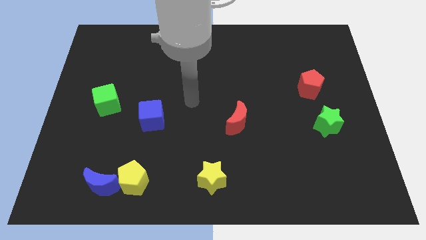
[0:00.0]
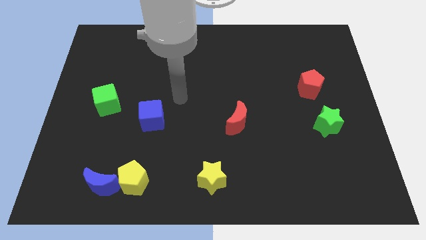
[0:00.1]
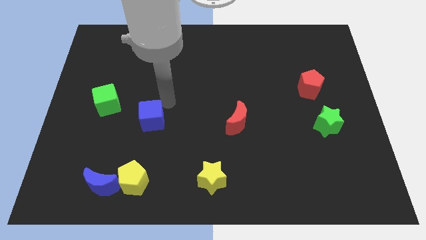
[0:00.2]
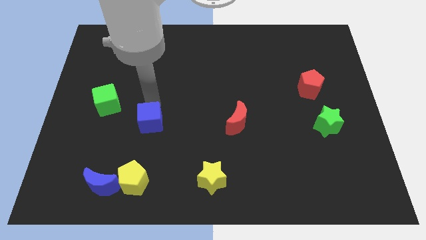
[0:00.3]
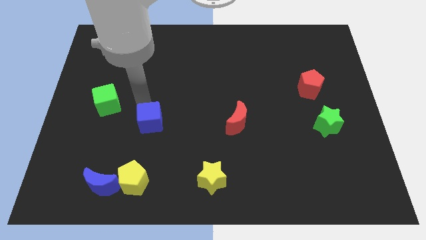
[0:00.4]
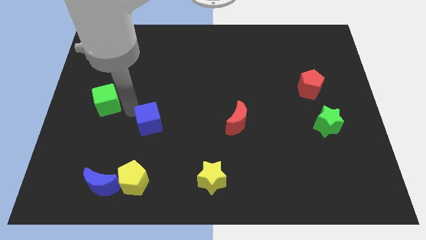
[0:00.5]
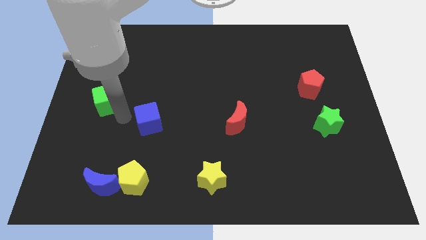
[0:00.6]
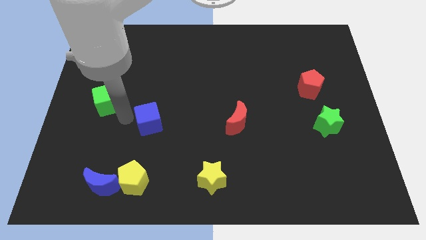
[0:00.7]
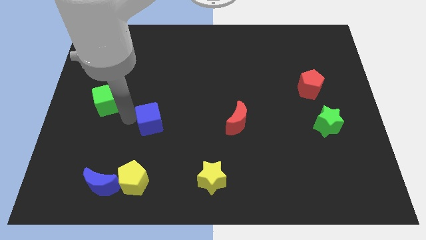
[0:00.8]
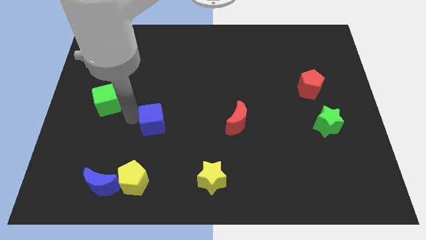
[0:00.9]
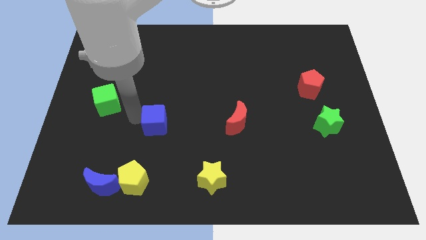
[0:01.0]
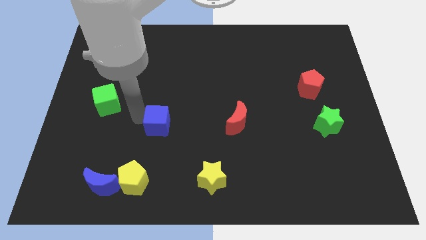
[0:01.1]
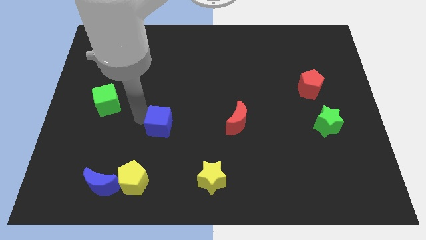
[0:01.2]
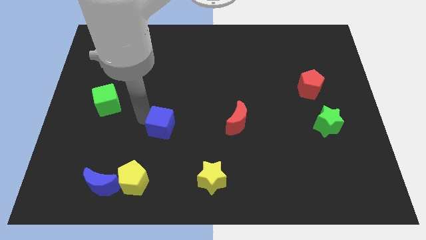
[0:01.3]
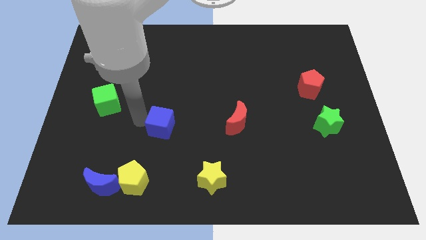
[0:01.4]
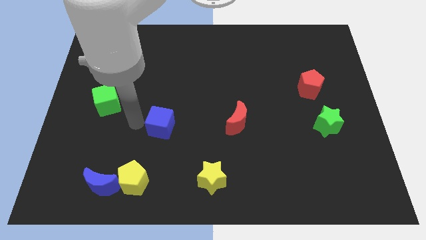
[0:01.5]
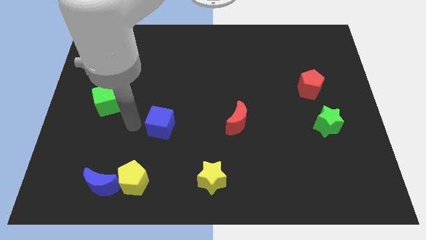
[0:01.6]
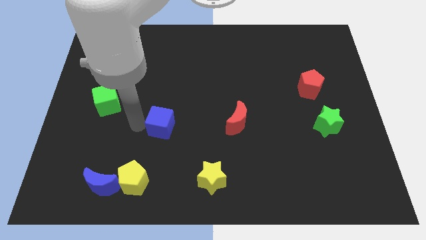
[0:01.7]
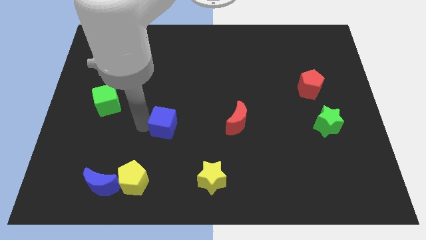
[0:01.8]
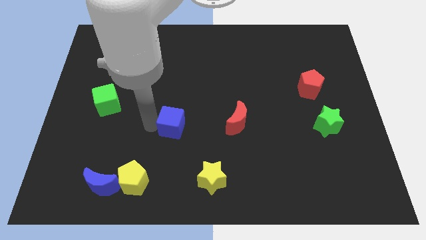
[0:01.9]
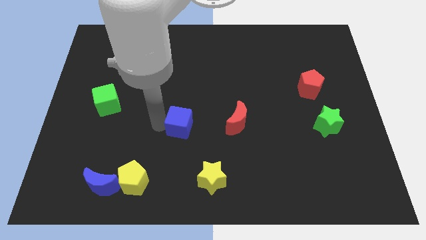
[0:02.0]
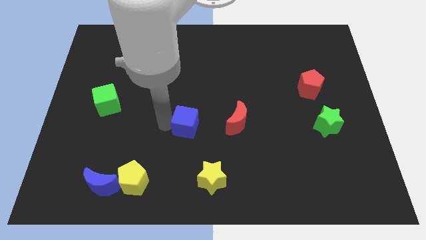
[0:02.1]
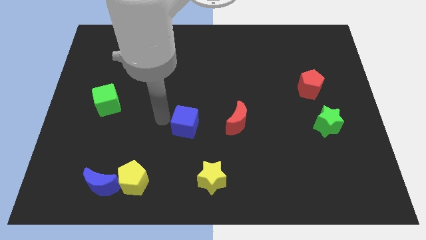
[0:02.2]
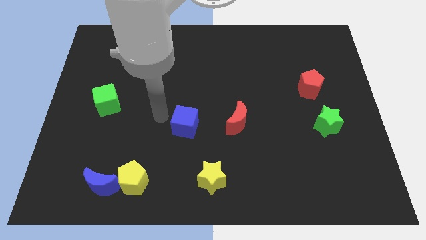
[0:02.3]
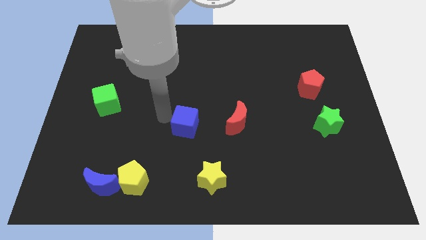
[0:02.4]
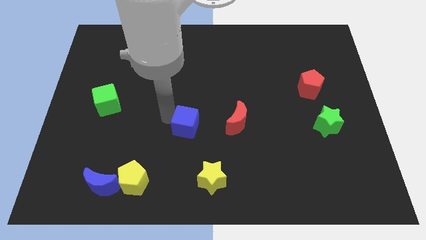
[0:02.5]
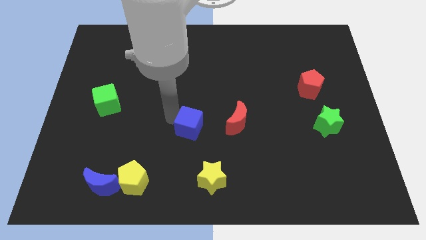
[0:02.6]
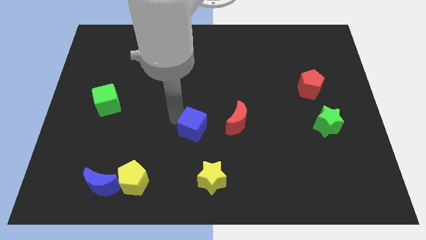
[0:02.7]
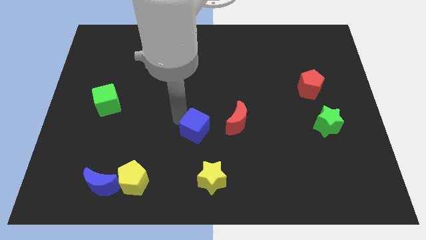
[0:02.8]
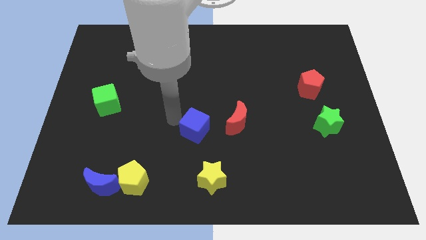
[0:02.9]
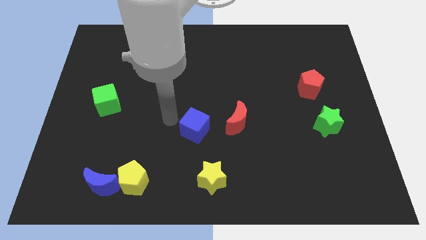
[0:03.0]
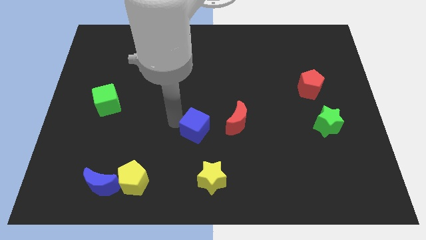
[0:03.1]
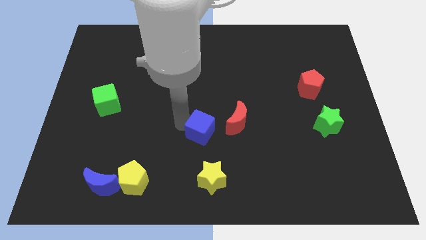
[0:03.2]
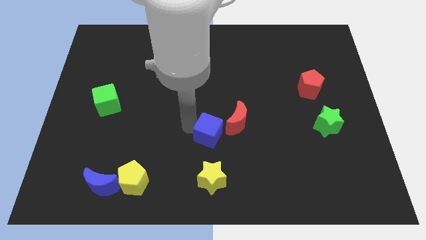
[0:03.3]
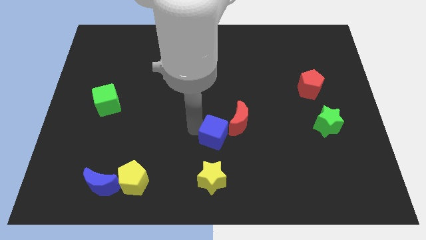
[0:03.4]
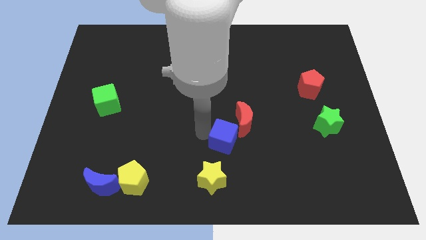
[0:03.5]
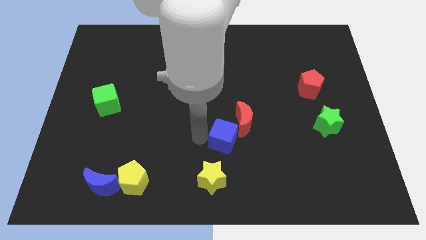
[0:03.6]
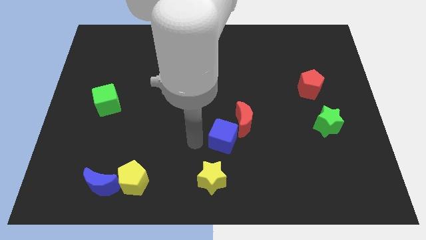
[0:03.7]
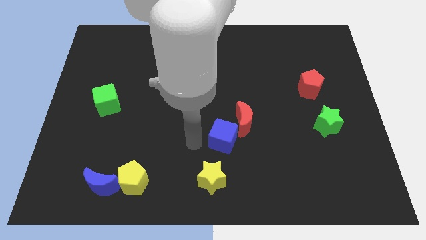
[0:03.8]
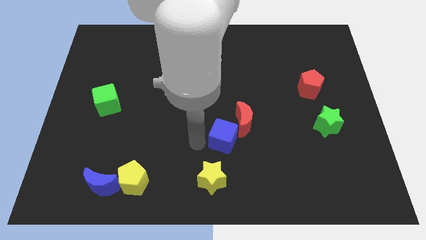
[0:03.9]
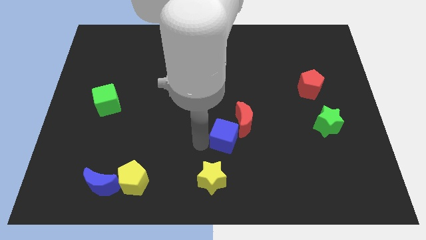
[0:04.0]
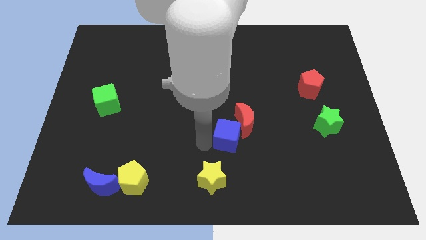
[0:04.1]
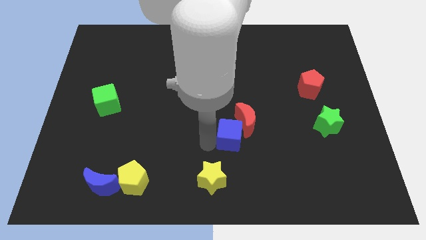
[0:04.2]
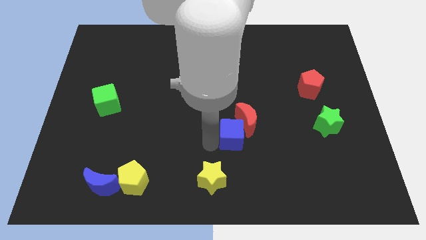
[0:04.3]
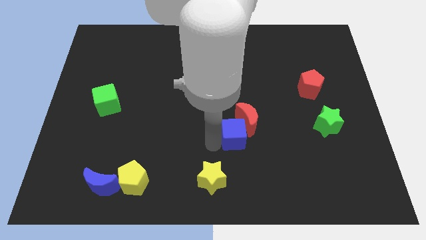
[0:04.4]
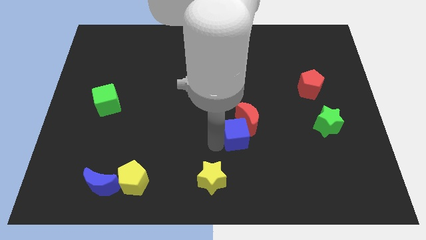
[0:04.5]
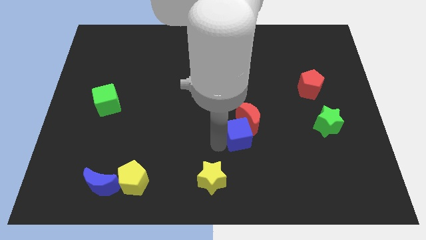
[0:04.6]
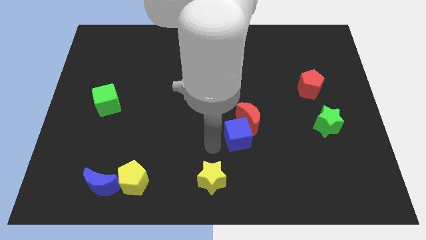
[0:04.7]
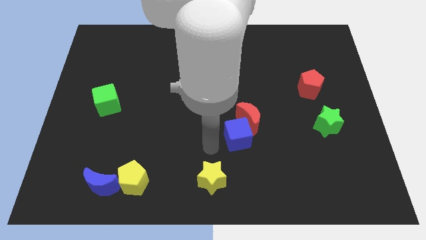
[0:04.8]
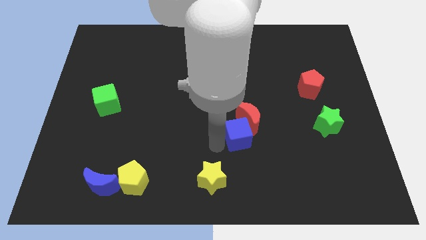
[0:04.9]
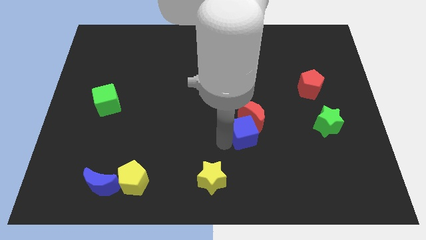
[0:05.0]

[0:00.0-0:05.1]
push the blue cube to the right

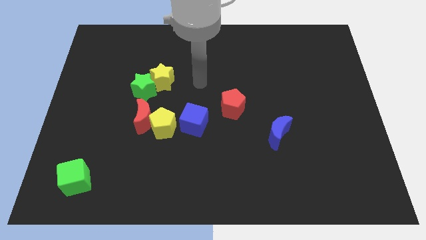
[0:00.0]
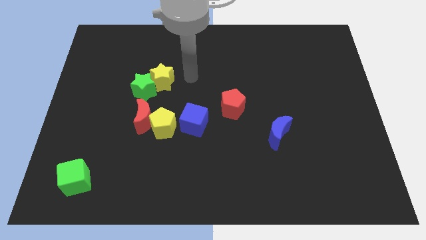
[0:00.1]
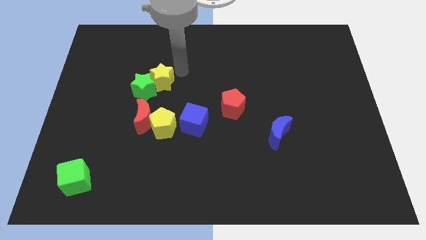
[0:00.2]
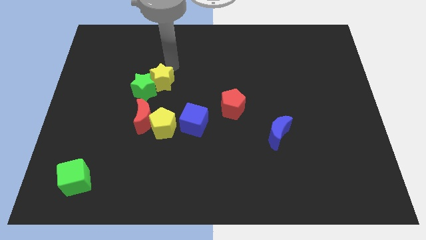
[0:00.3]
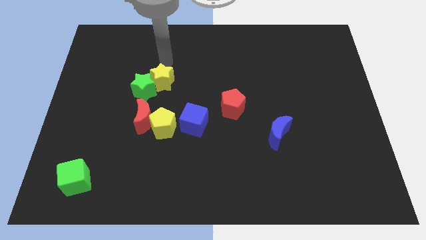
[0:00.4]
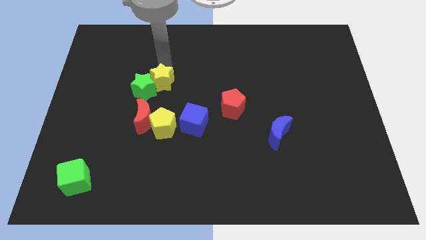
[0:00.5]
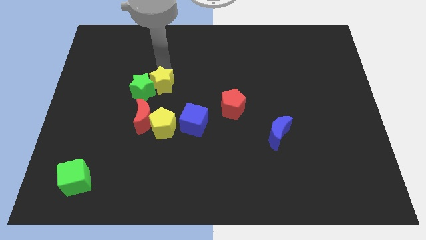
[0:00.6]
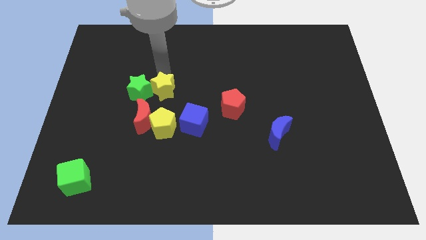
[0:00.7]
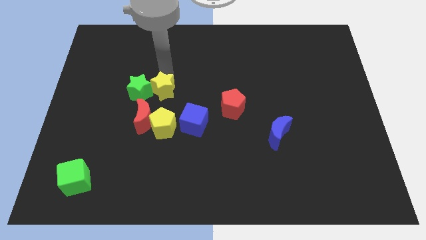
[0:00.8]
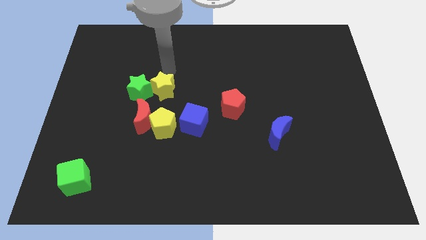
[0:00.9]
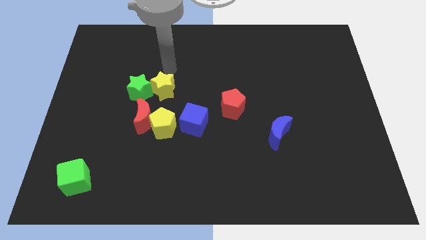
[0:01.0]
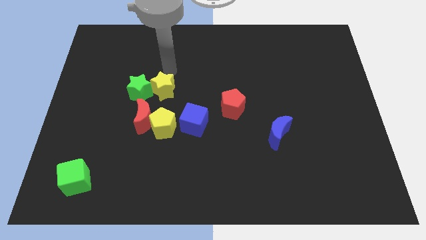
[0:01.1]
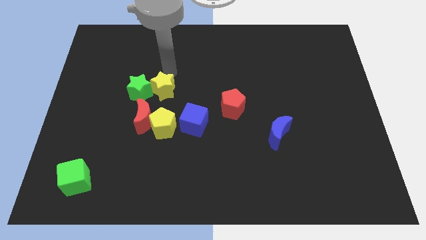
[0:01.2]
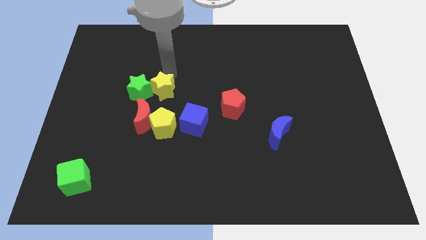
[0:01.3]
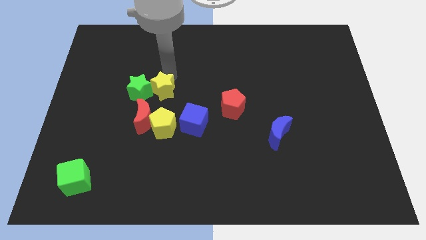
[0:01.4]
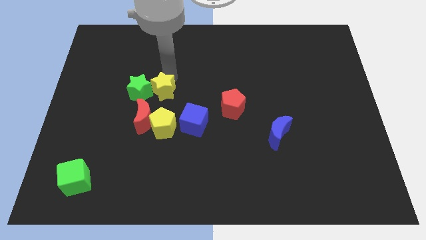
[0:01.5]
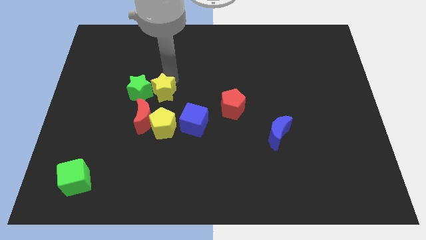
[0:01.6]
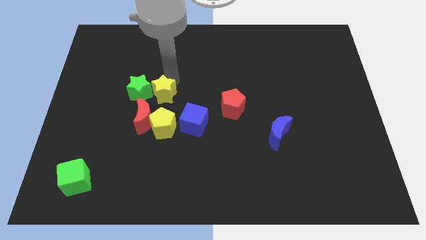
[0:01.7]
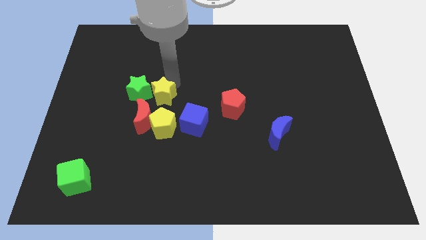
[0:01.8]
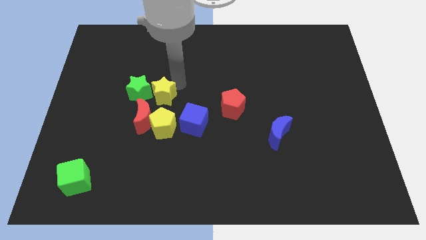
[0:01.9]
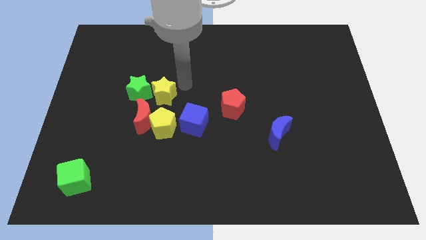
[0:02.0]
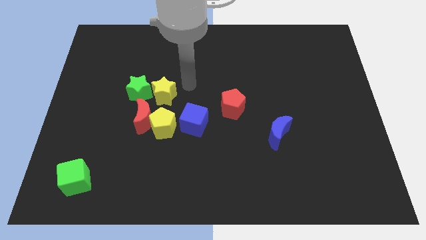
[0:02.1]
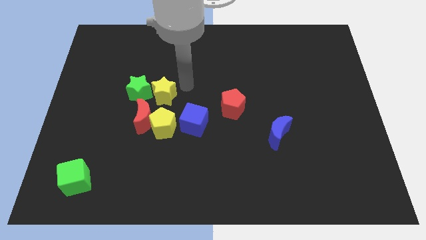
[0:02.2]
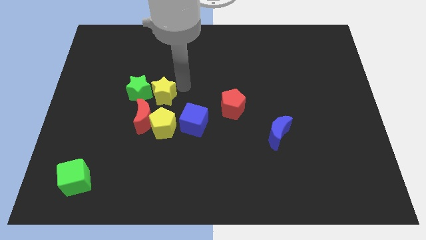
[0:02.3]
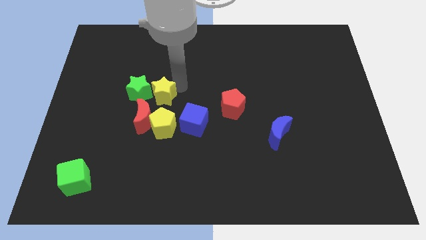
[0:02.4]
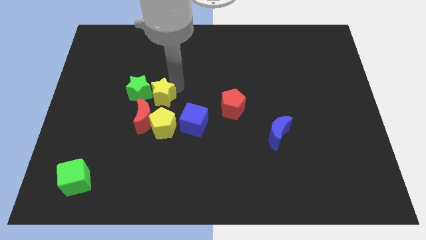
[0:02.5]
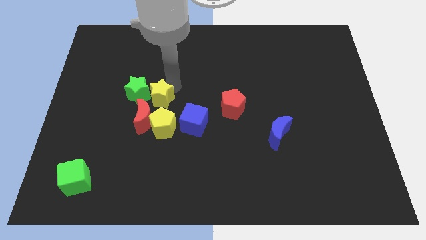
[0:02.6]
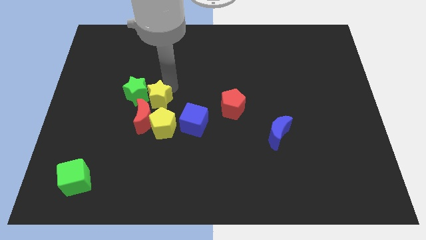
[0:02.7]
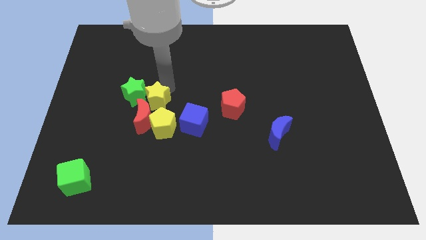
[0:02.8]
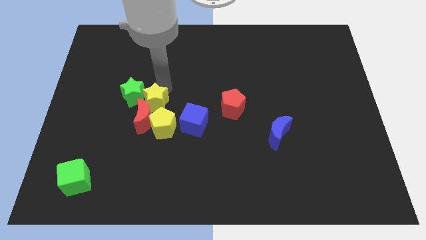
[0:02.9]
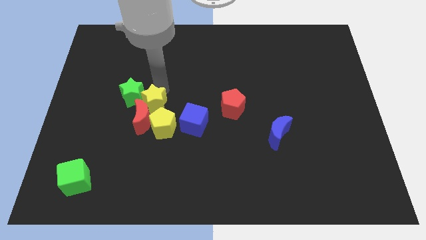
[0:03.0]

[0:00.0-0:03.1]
slide the yellow star down a little
